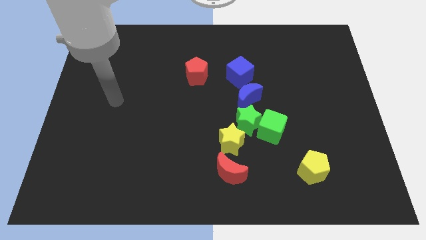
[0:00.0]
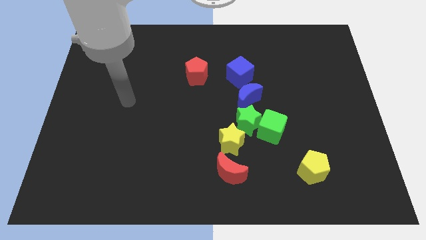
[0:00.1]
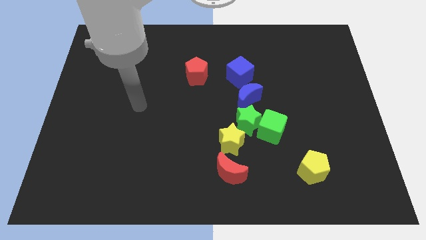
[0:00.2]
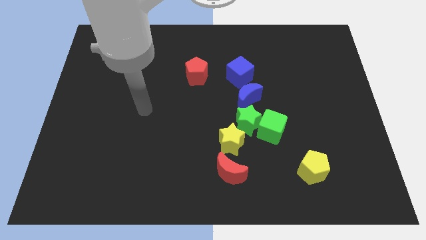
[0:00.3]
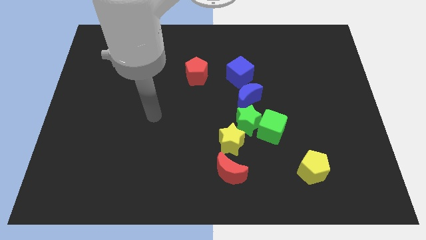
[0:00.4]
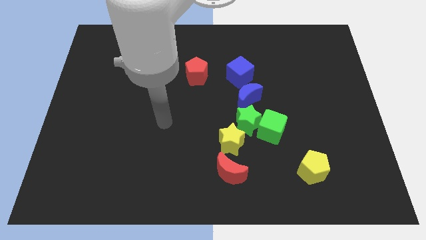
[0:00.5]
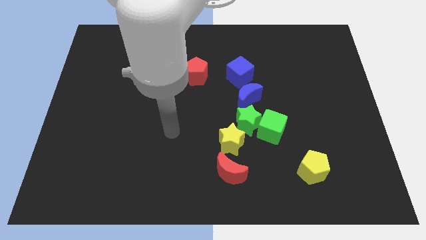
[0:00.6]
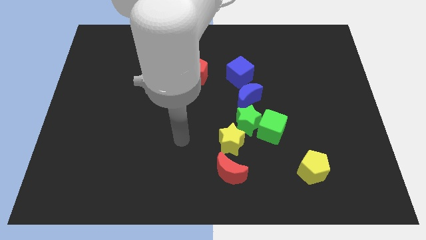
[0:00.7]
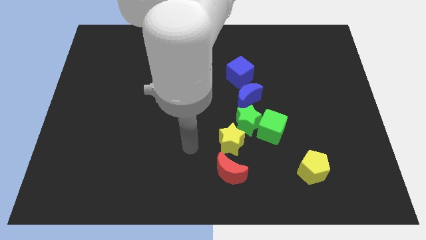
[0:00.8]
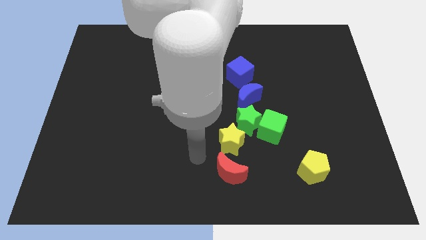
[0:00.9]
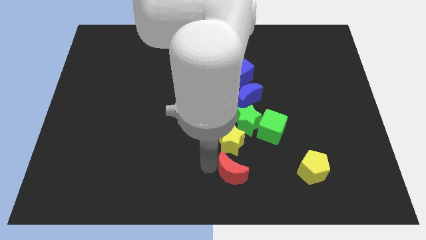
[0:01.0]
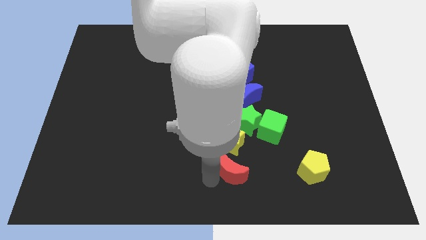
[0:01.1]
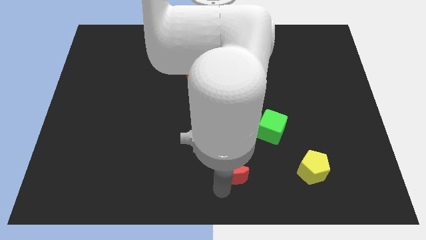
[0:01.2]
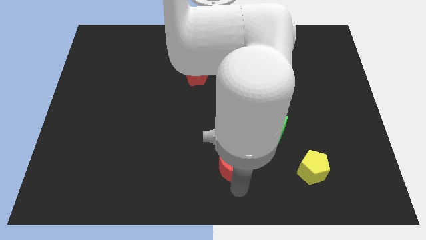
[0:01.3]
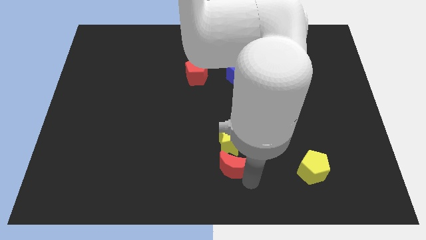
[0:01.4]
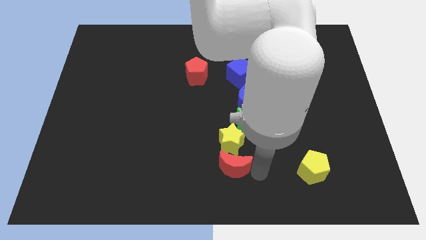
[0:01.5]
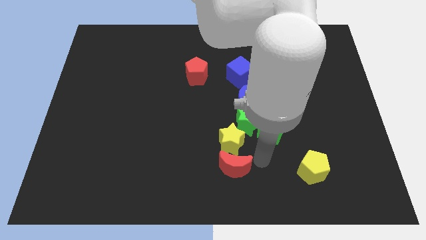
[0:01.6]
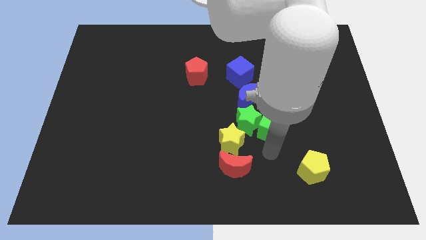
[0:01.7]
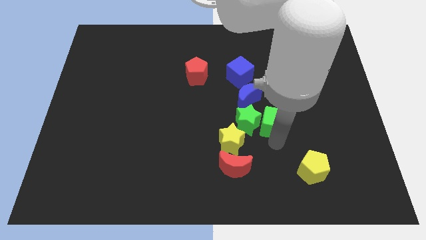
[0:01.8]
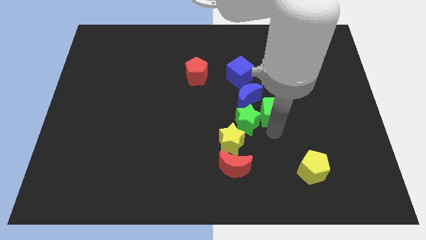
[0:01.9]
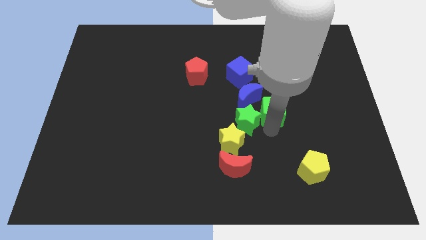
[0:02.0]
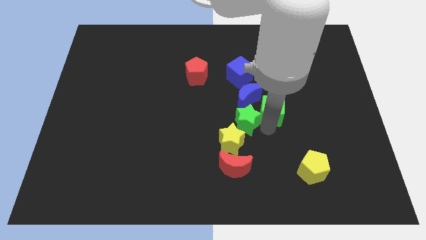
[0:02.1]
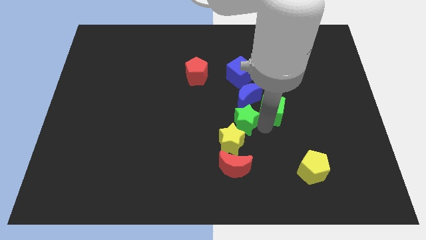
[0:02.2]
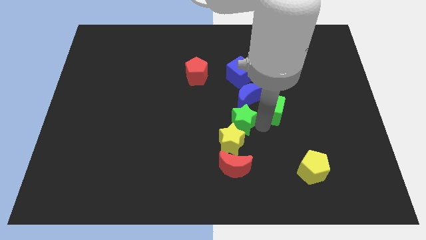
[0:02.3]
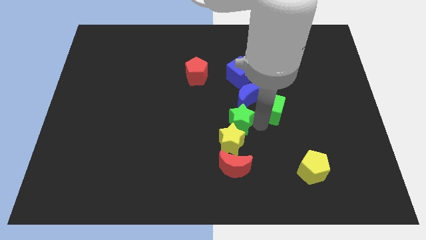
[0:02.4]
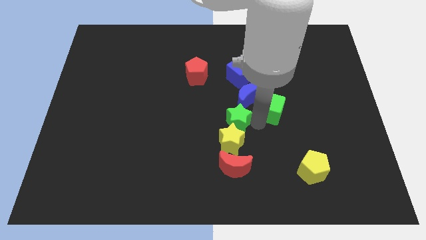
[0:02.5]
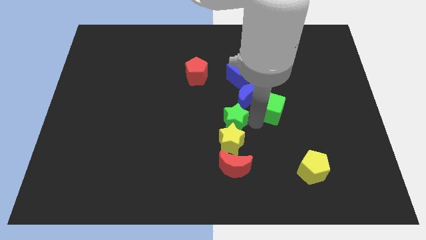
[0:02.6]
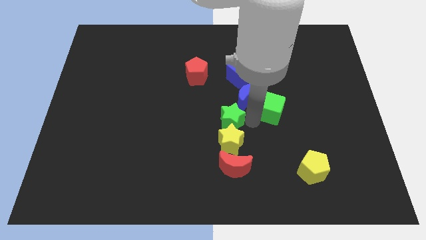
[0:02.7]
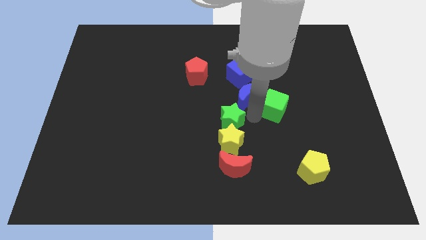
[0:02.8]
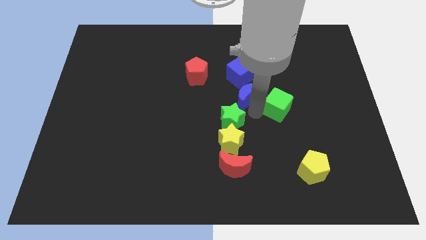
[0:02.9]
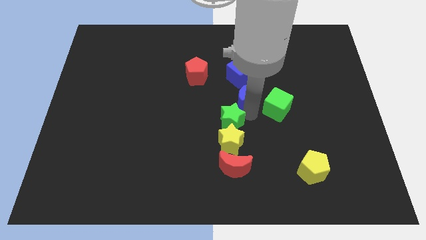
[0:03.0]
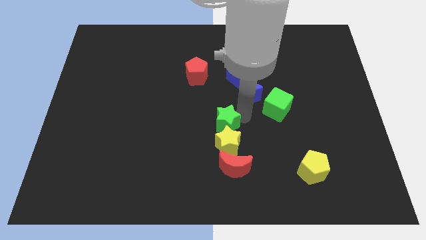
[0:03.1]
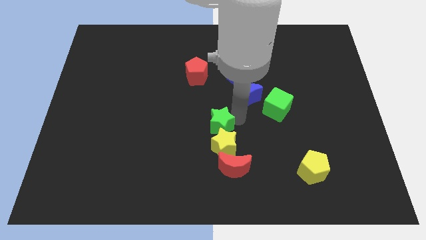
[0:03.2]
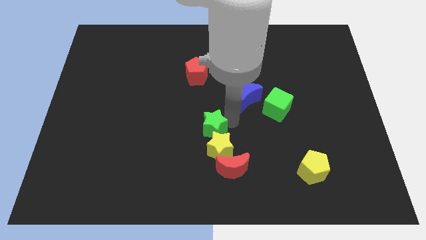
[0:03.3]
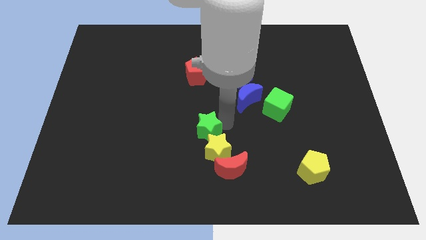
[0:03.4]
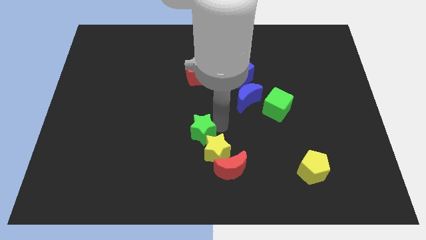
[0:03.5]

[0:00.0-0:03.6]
pull the green star apart from the group of blocks

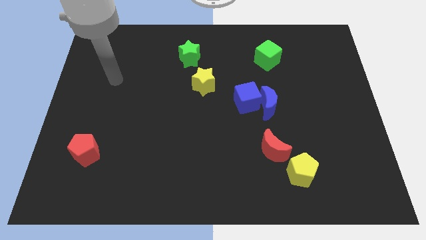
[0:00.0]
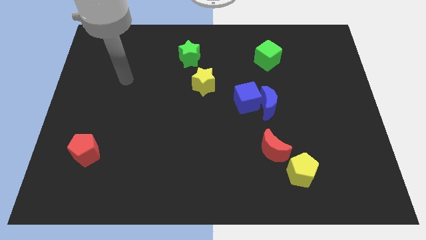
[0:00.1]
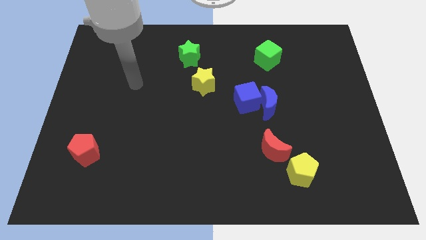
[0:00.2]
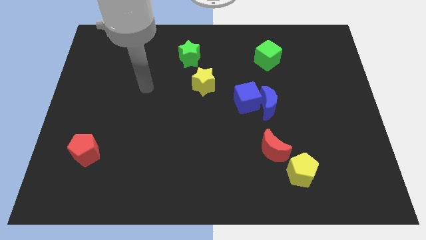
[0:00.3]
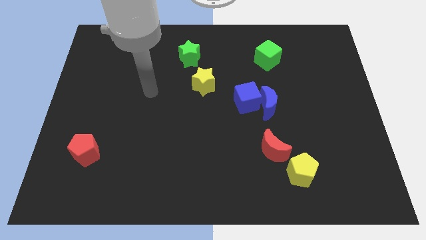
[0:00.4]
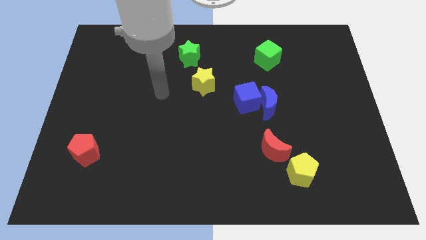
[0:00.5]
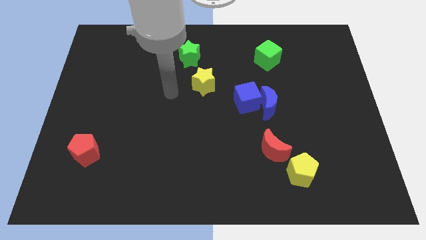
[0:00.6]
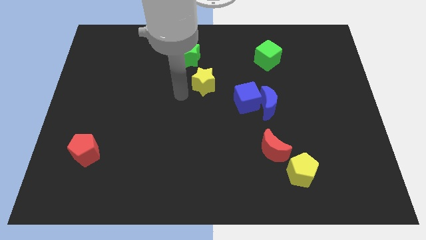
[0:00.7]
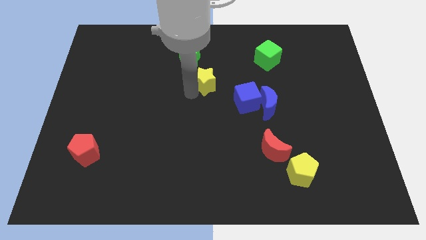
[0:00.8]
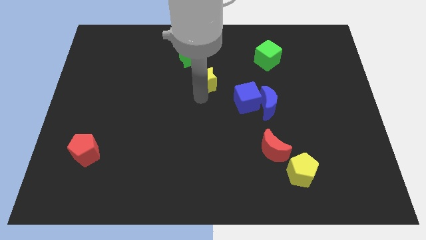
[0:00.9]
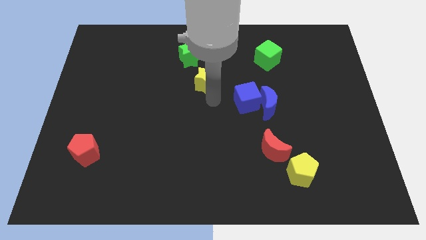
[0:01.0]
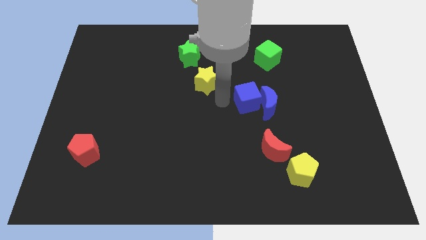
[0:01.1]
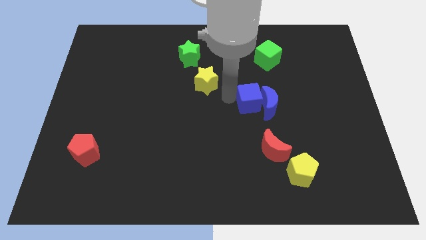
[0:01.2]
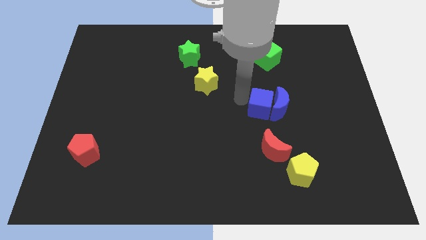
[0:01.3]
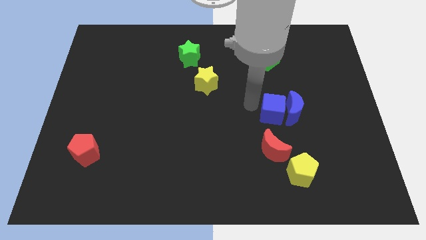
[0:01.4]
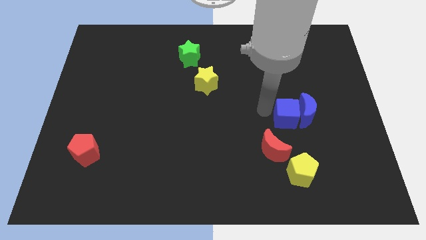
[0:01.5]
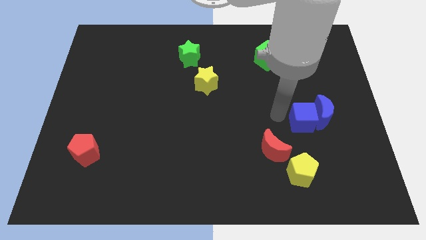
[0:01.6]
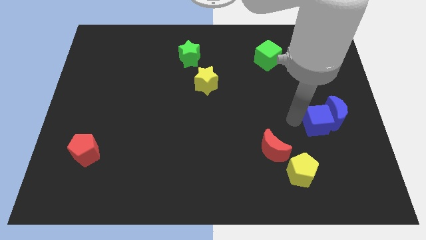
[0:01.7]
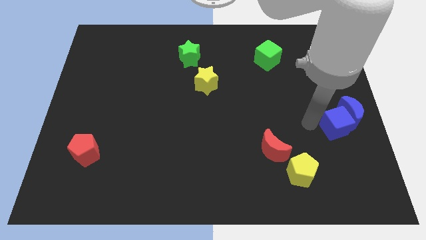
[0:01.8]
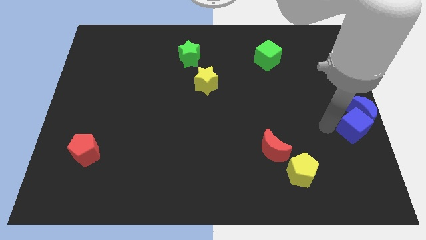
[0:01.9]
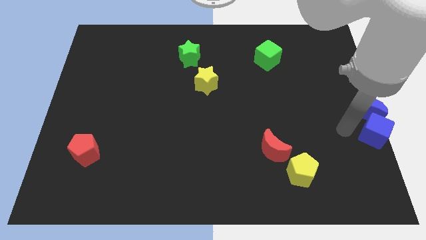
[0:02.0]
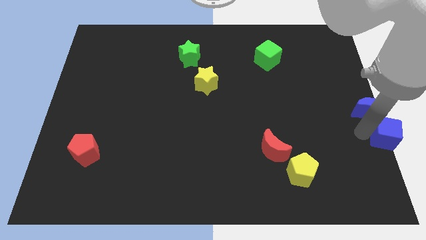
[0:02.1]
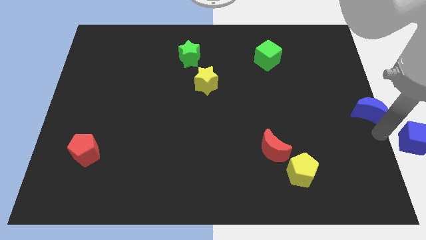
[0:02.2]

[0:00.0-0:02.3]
move the blue moon away from the blue cube

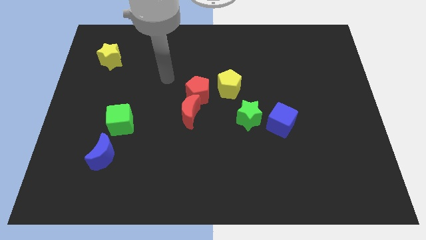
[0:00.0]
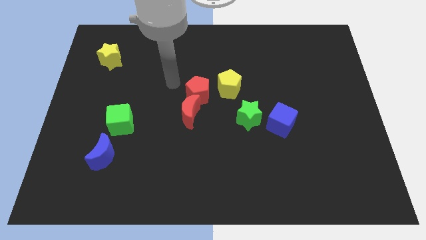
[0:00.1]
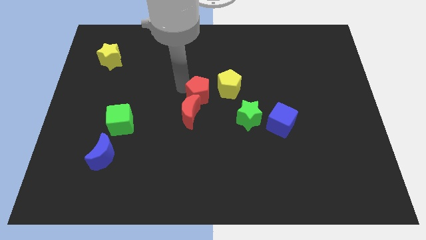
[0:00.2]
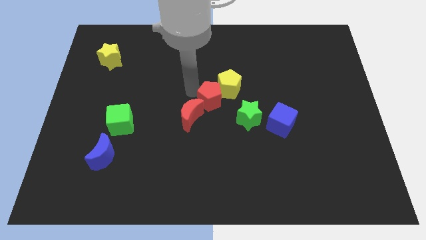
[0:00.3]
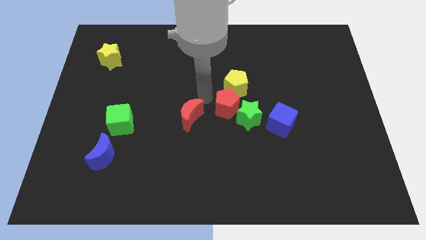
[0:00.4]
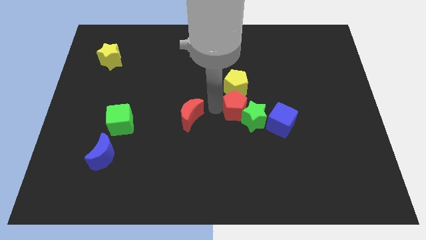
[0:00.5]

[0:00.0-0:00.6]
move the red moon away from the red pentagon

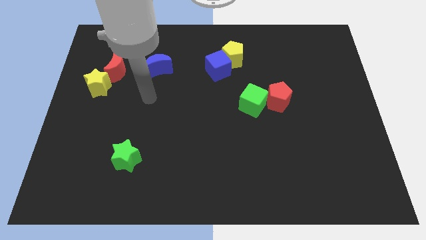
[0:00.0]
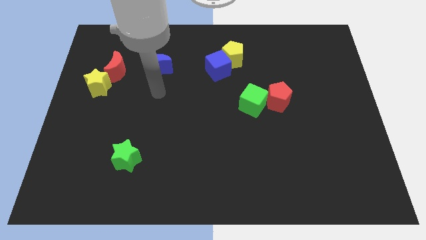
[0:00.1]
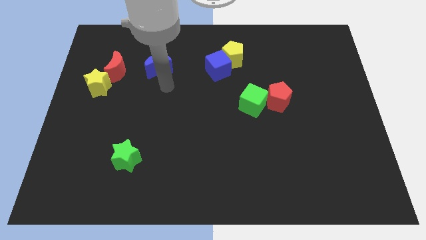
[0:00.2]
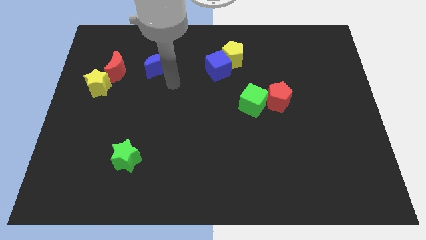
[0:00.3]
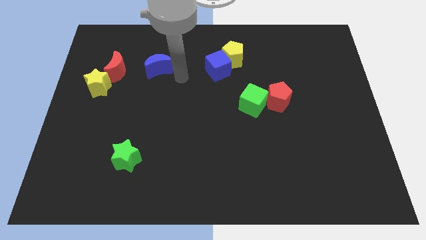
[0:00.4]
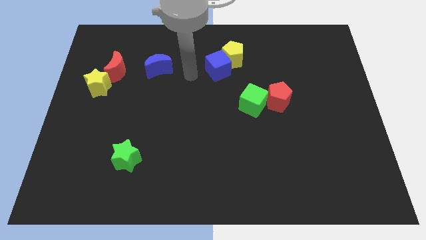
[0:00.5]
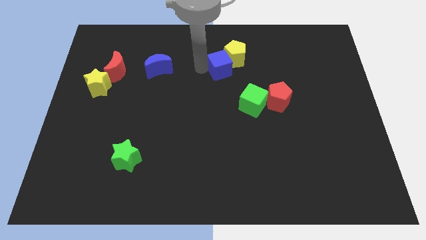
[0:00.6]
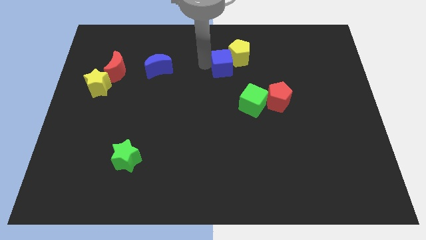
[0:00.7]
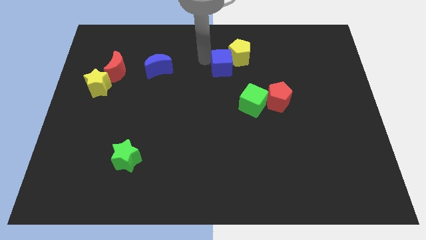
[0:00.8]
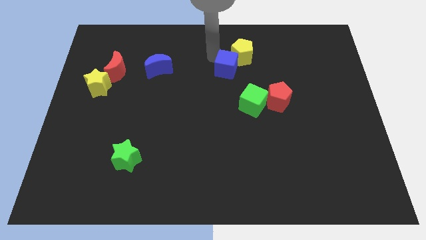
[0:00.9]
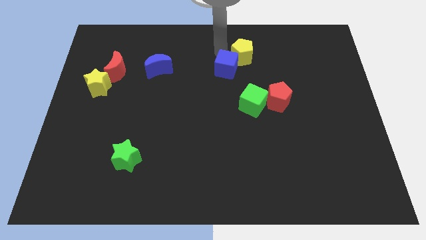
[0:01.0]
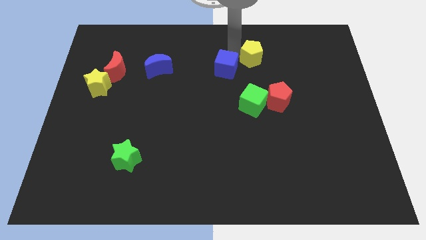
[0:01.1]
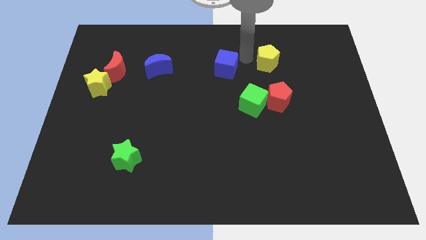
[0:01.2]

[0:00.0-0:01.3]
move the blue cube away from the yellow pentagon

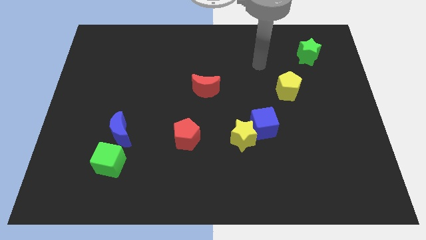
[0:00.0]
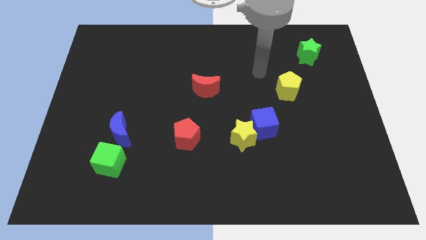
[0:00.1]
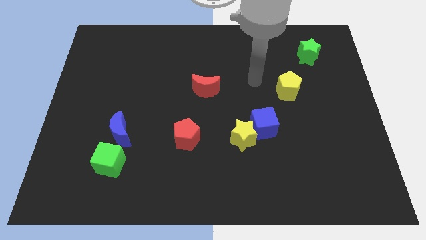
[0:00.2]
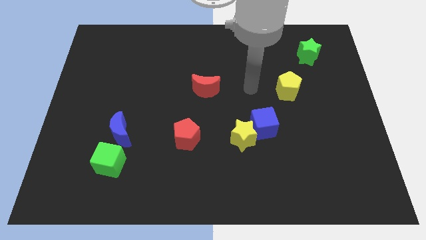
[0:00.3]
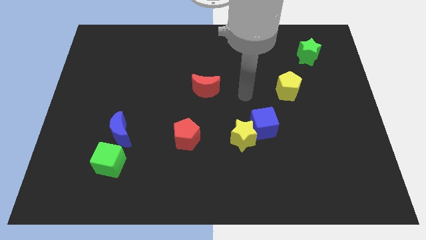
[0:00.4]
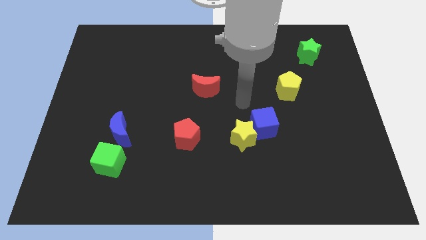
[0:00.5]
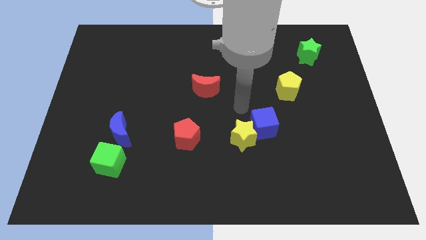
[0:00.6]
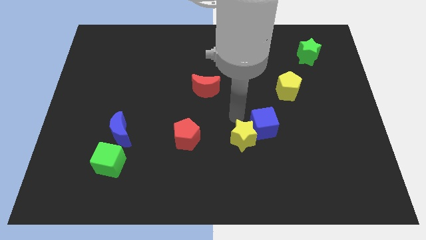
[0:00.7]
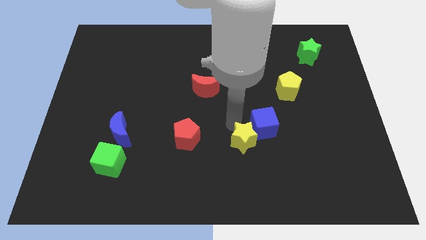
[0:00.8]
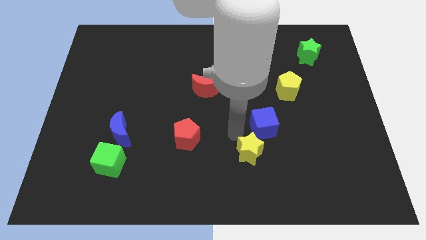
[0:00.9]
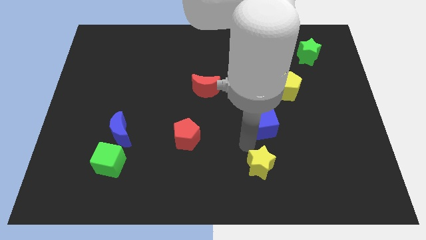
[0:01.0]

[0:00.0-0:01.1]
move the blue cube away from the yellow star

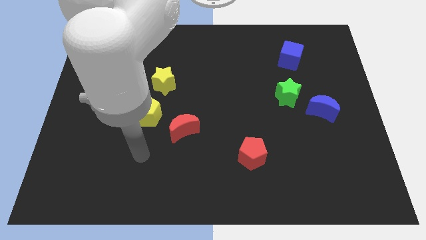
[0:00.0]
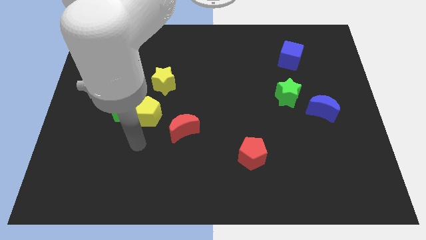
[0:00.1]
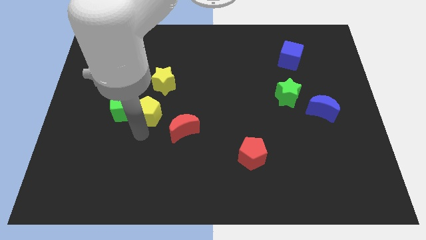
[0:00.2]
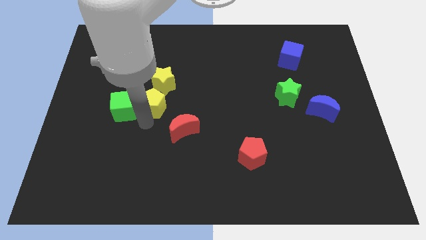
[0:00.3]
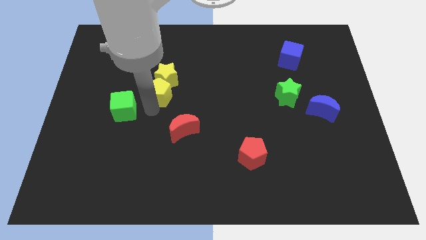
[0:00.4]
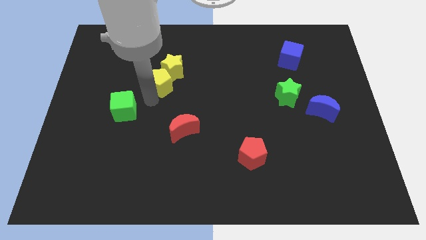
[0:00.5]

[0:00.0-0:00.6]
move the green cube away from the yellow pentagon
